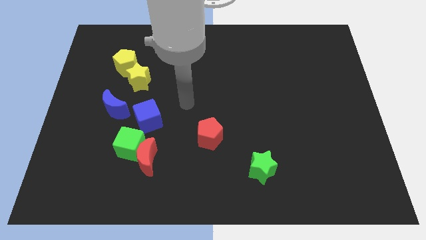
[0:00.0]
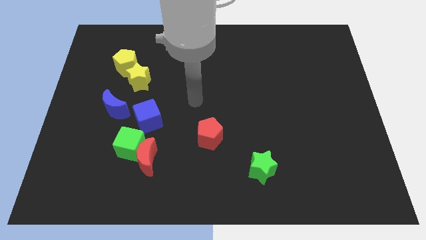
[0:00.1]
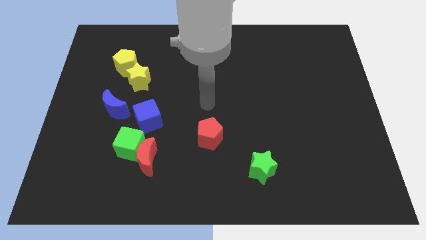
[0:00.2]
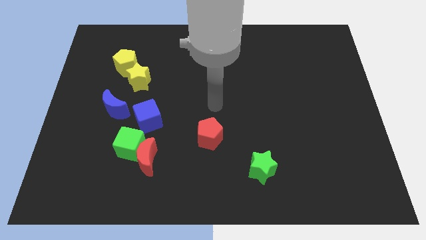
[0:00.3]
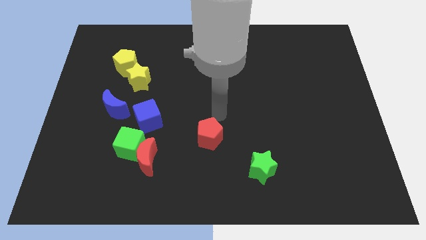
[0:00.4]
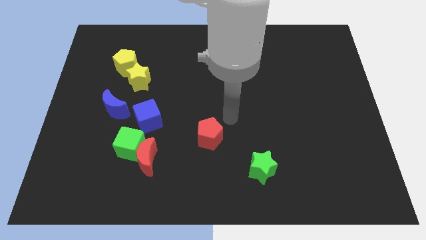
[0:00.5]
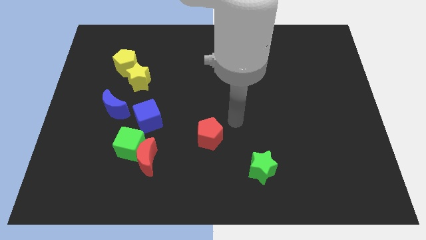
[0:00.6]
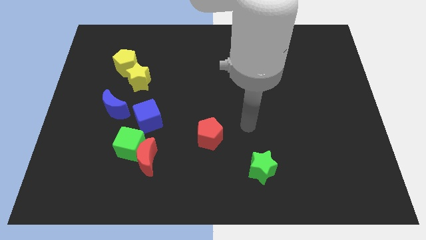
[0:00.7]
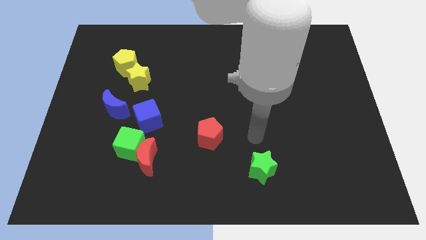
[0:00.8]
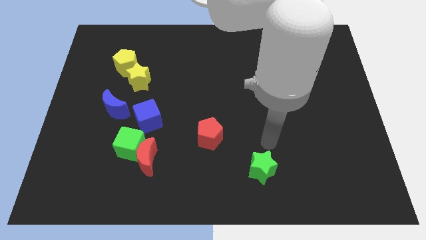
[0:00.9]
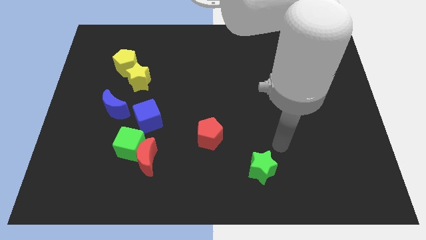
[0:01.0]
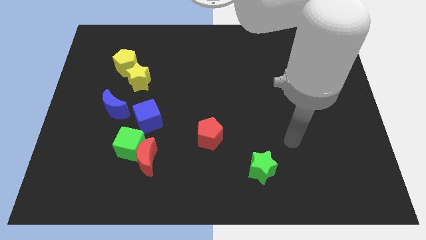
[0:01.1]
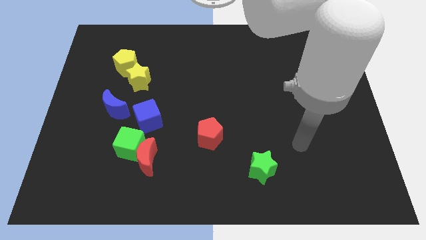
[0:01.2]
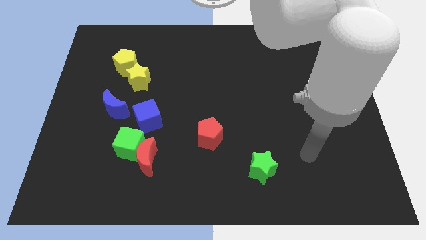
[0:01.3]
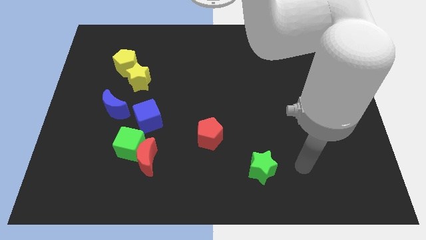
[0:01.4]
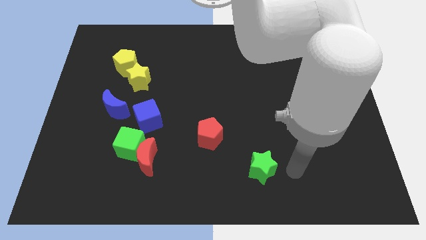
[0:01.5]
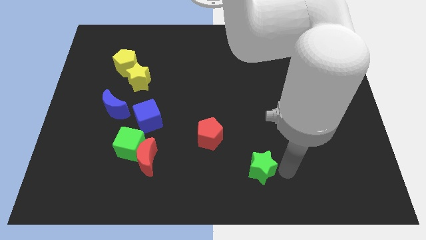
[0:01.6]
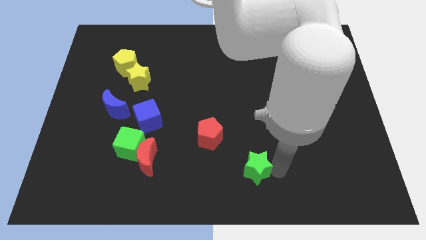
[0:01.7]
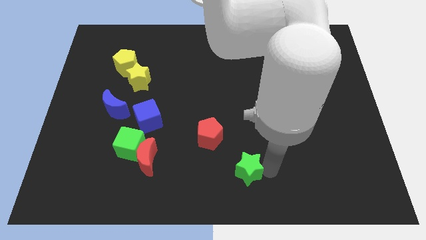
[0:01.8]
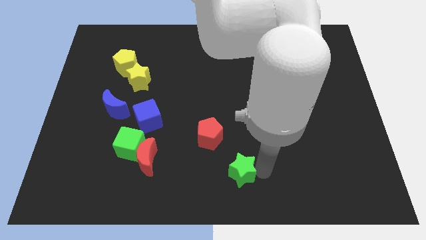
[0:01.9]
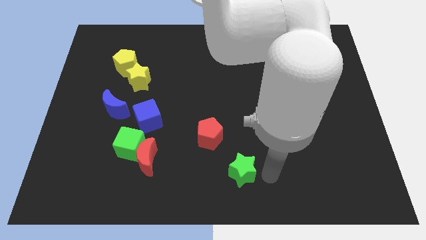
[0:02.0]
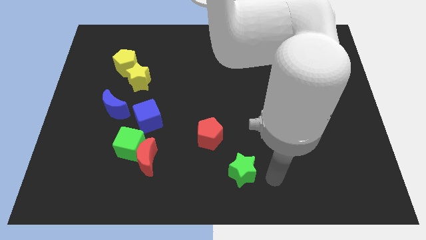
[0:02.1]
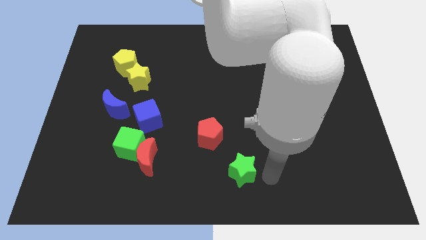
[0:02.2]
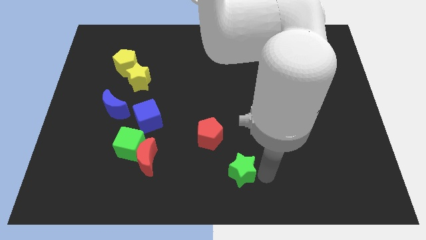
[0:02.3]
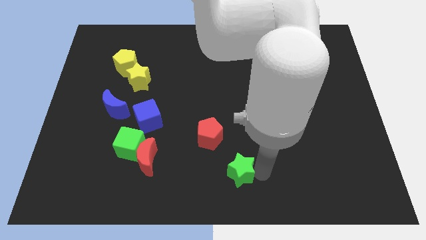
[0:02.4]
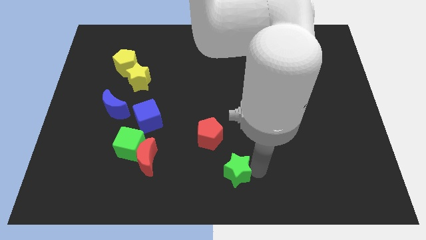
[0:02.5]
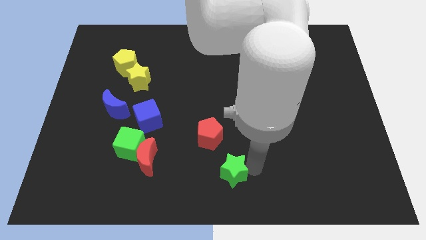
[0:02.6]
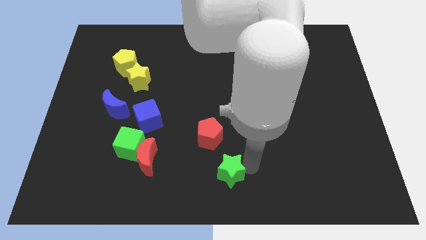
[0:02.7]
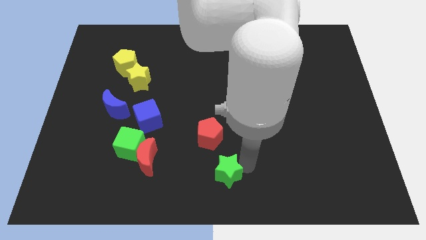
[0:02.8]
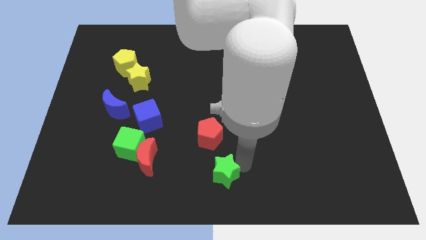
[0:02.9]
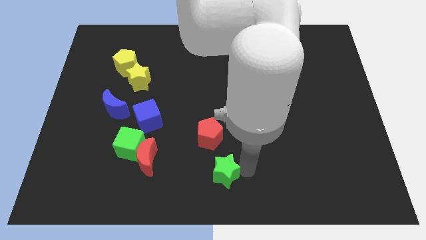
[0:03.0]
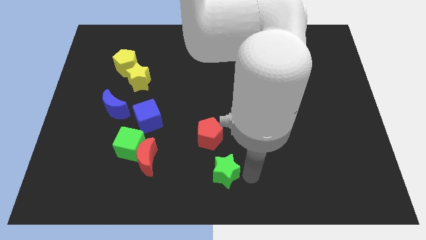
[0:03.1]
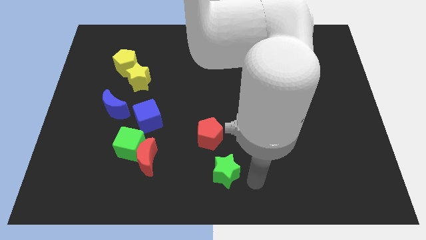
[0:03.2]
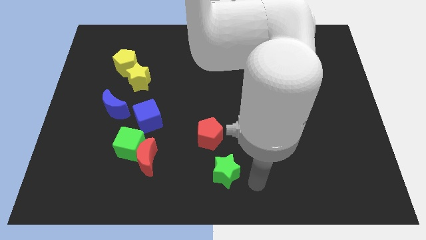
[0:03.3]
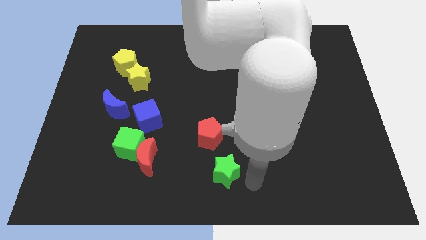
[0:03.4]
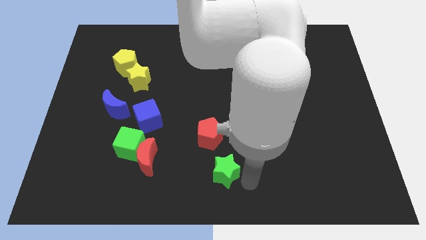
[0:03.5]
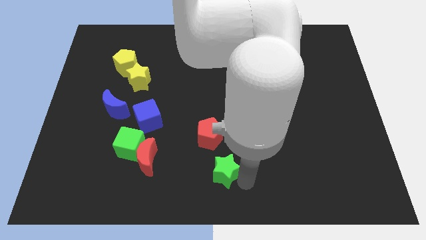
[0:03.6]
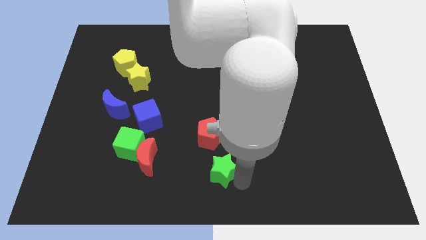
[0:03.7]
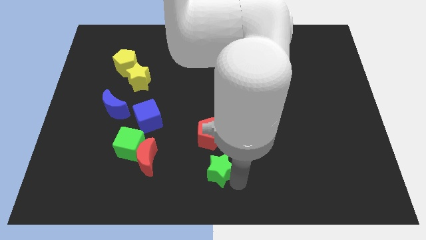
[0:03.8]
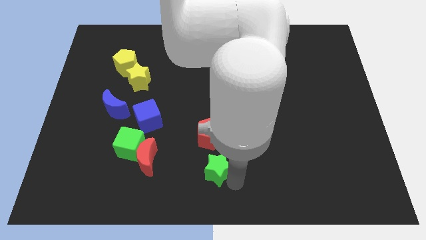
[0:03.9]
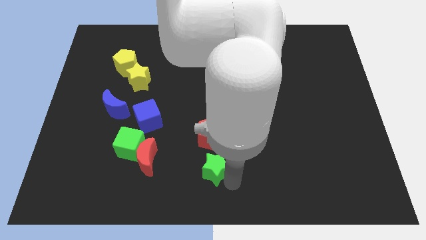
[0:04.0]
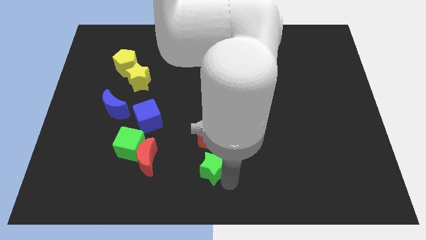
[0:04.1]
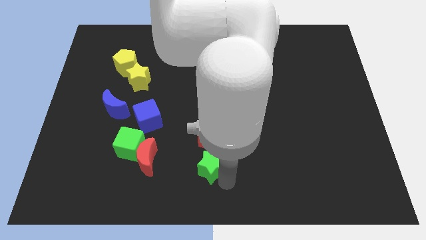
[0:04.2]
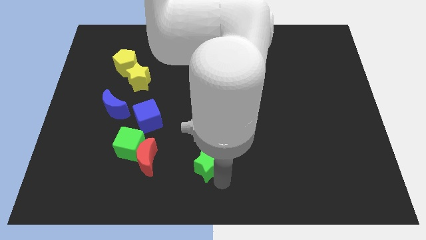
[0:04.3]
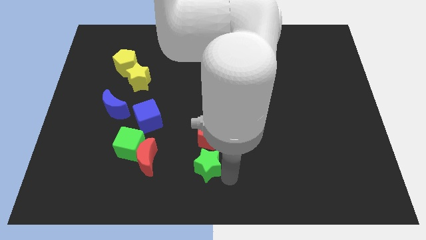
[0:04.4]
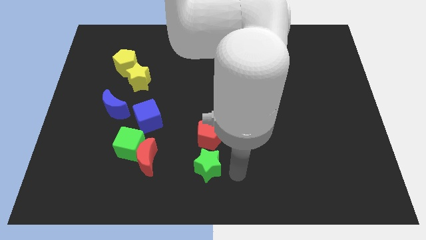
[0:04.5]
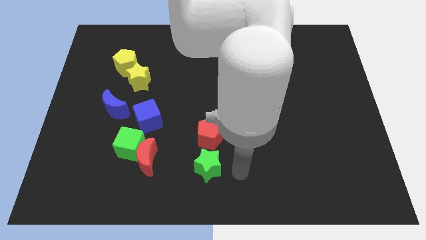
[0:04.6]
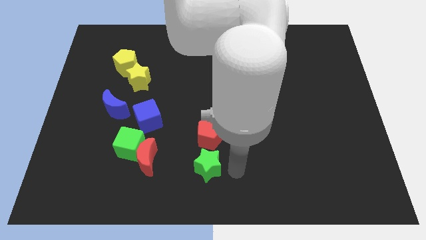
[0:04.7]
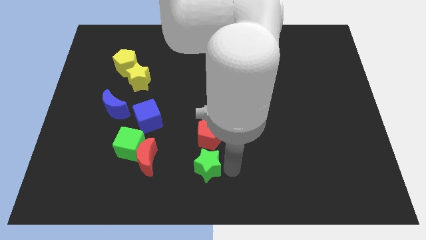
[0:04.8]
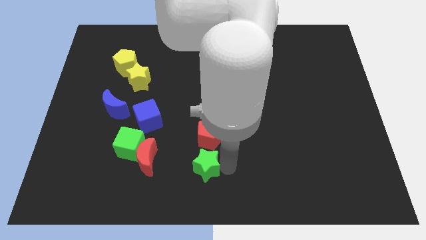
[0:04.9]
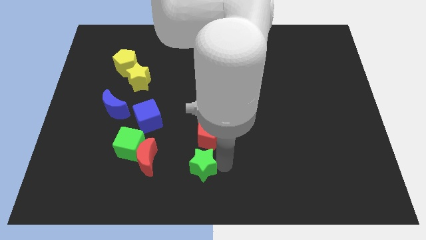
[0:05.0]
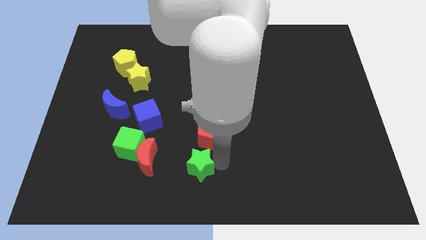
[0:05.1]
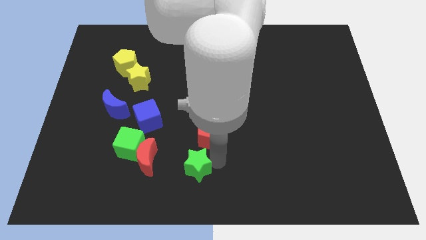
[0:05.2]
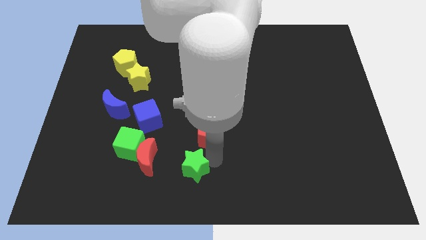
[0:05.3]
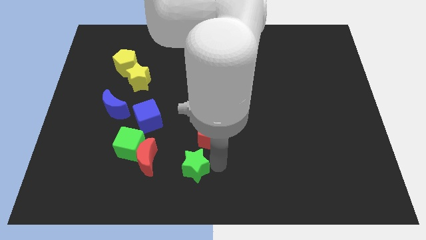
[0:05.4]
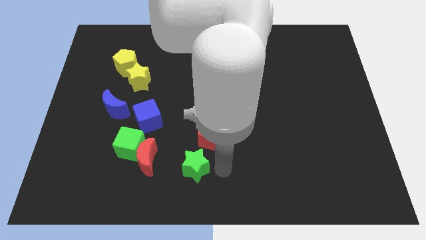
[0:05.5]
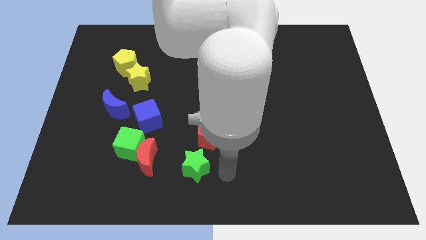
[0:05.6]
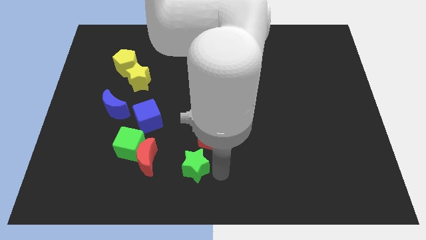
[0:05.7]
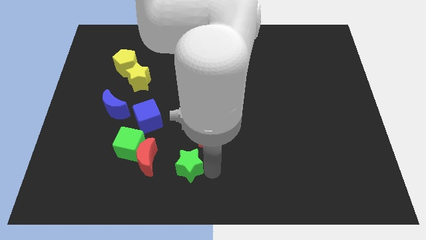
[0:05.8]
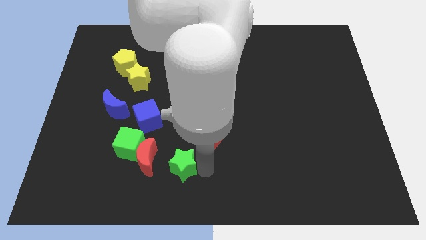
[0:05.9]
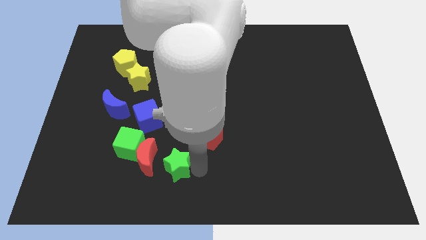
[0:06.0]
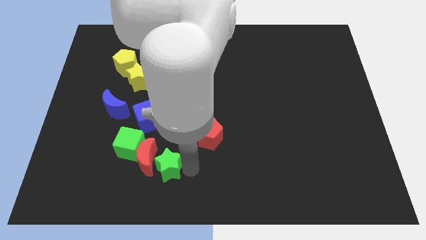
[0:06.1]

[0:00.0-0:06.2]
move the green star next to the red moon
